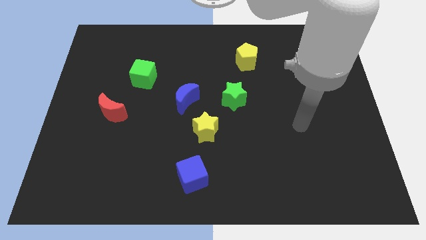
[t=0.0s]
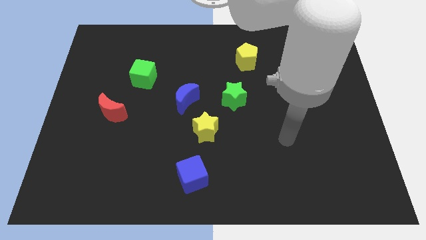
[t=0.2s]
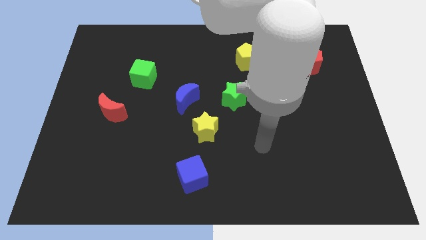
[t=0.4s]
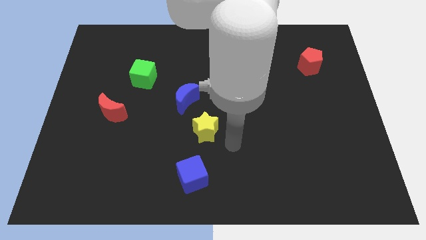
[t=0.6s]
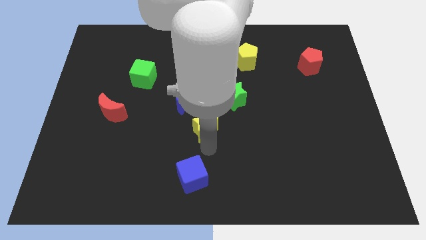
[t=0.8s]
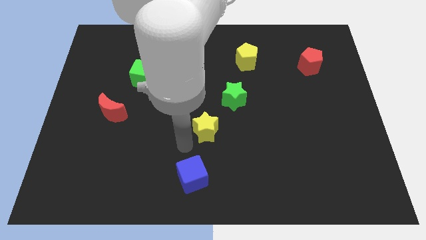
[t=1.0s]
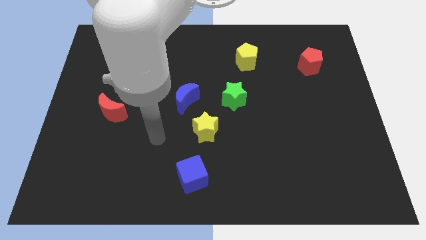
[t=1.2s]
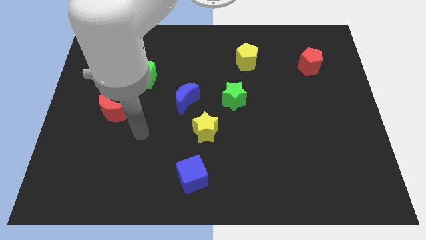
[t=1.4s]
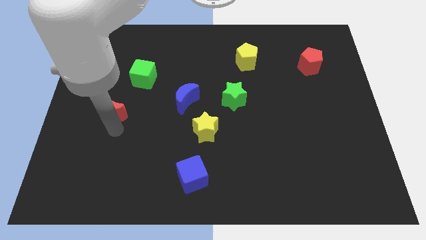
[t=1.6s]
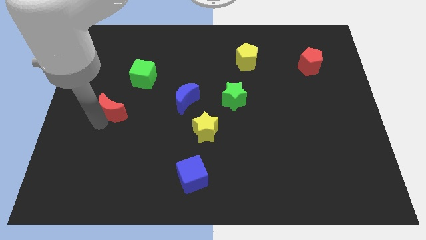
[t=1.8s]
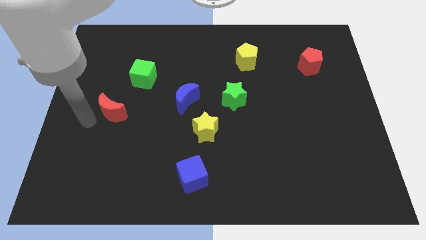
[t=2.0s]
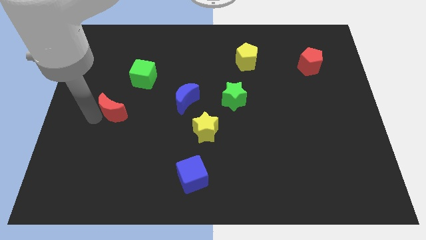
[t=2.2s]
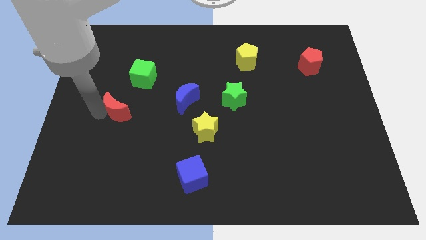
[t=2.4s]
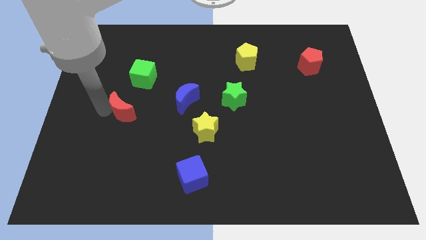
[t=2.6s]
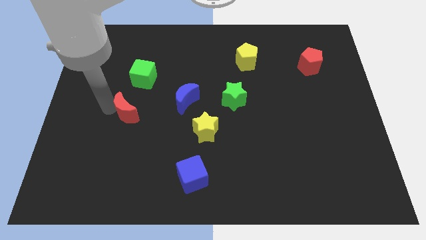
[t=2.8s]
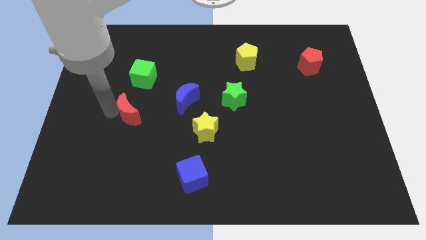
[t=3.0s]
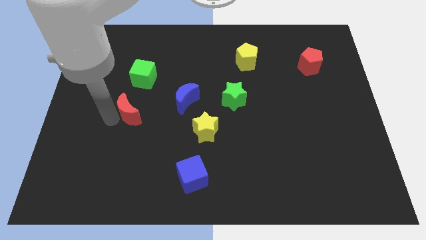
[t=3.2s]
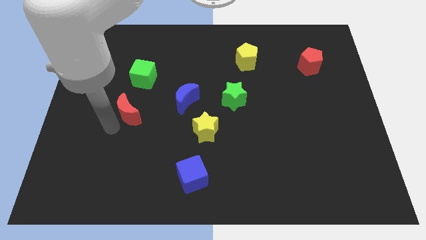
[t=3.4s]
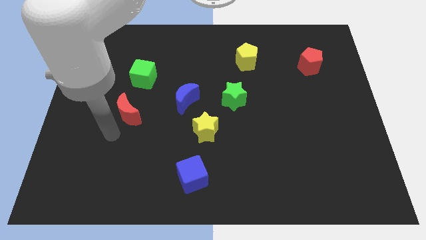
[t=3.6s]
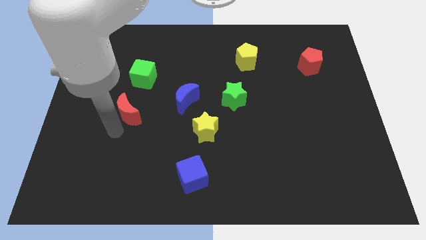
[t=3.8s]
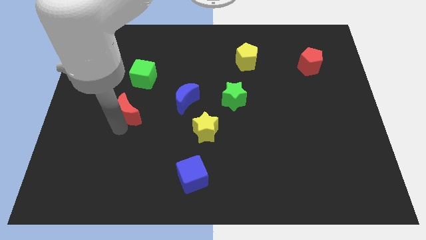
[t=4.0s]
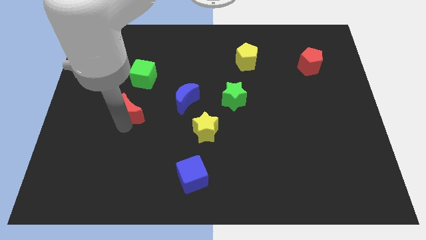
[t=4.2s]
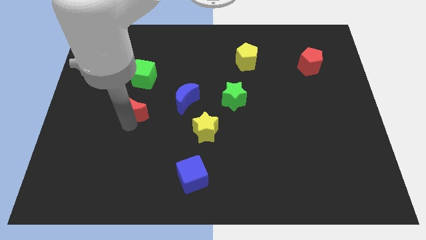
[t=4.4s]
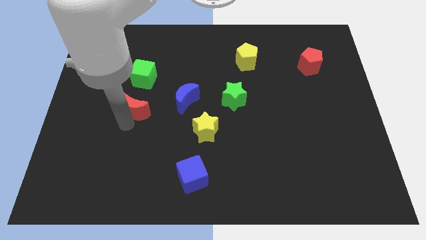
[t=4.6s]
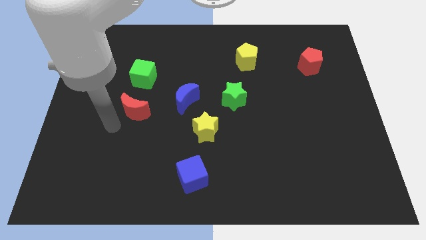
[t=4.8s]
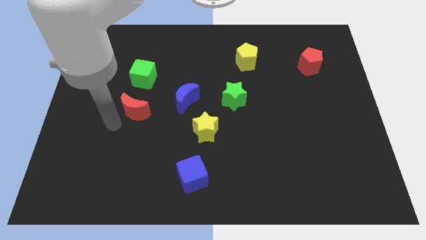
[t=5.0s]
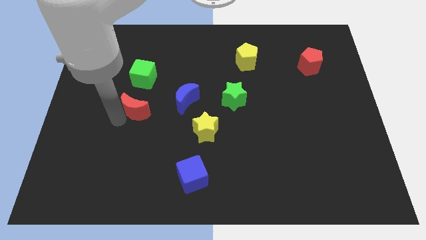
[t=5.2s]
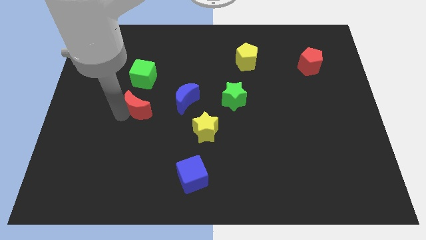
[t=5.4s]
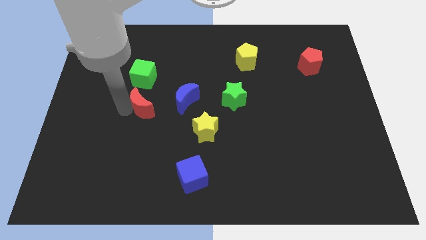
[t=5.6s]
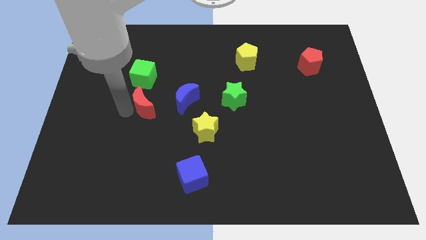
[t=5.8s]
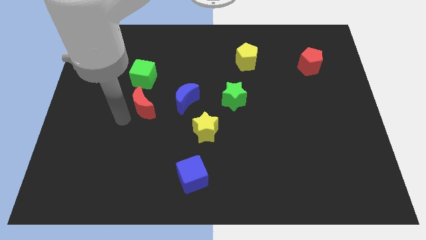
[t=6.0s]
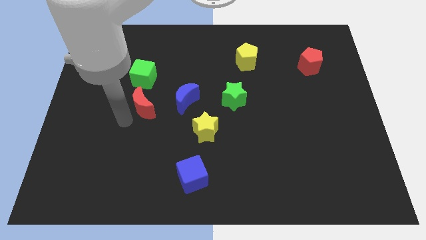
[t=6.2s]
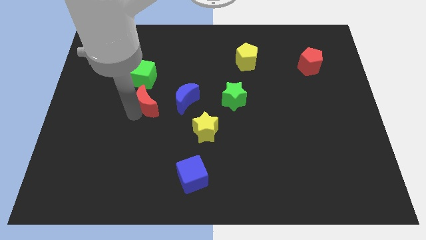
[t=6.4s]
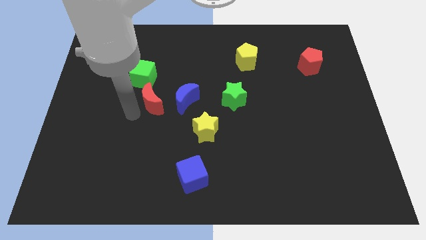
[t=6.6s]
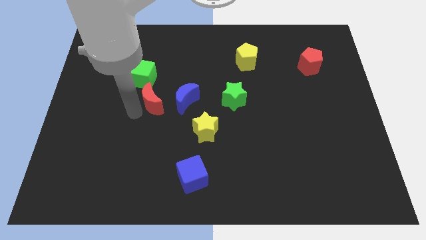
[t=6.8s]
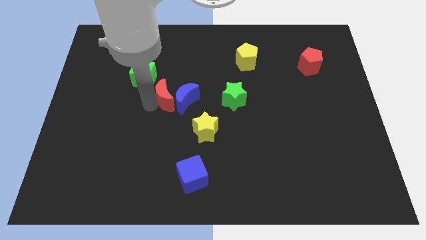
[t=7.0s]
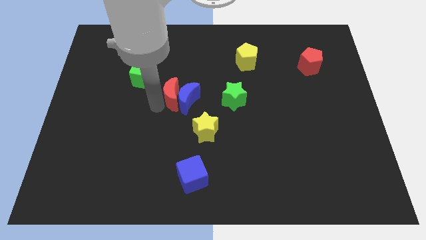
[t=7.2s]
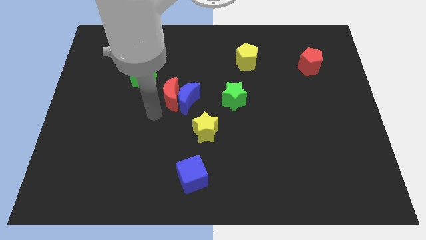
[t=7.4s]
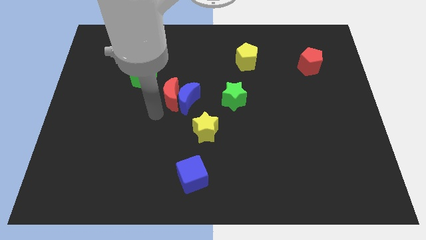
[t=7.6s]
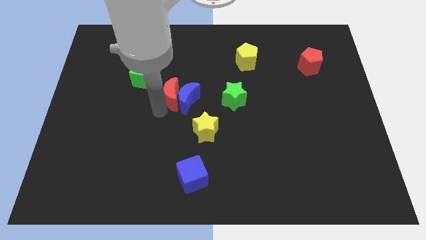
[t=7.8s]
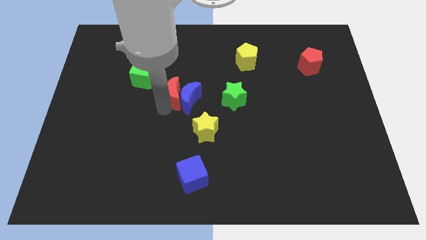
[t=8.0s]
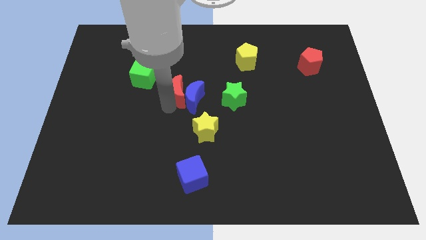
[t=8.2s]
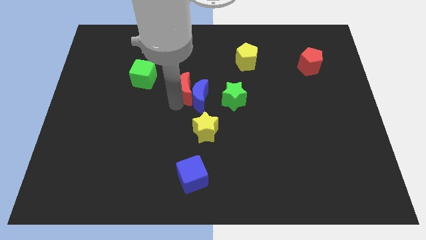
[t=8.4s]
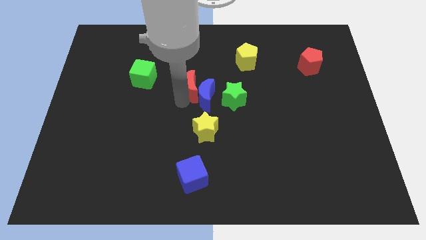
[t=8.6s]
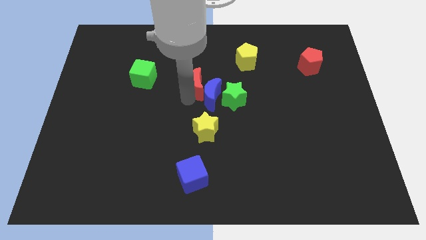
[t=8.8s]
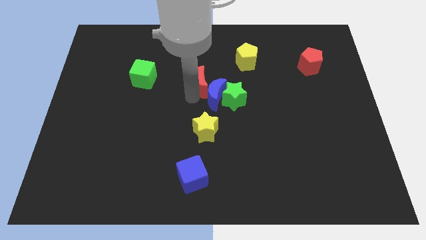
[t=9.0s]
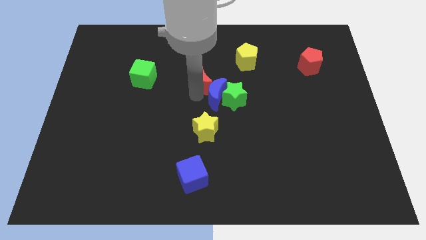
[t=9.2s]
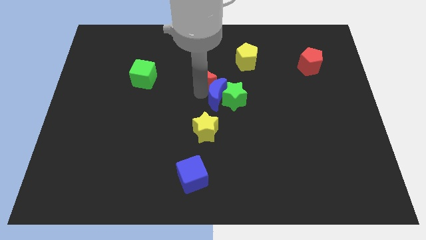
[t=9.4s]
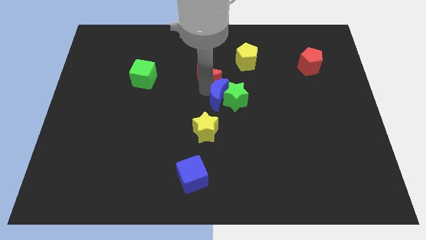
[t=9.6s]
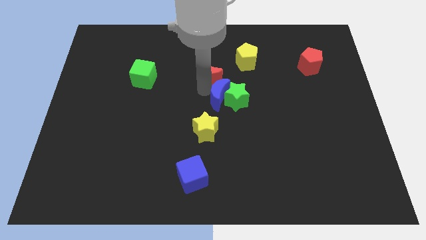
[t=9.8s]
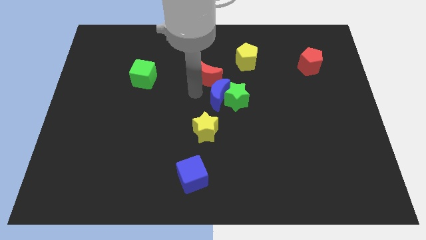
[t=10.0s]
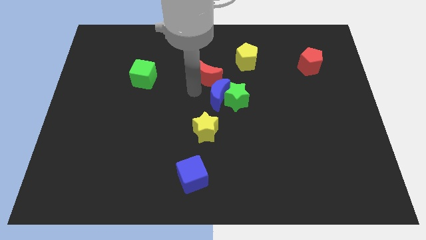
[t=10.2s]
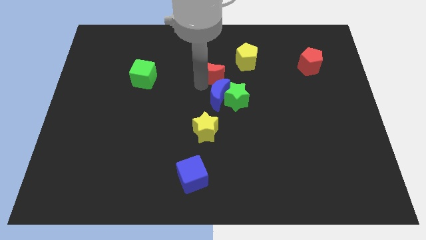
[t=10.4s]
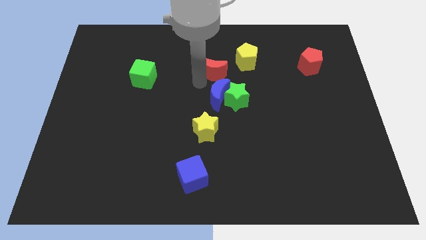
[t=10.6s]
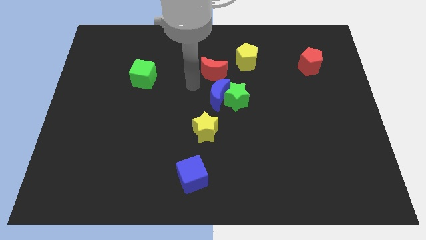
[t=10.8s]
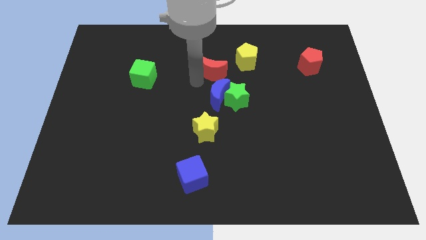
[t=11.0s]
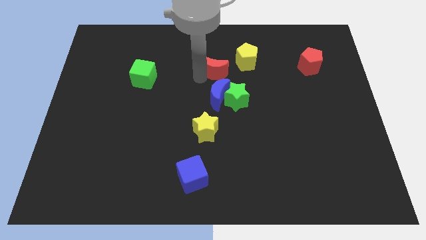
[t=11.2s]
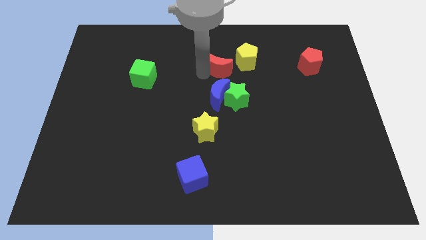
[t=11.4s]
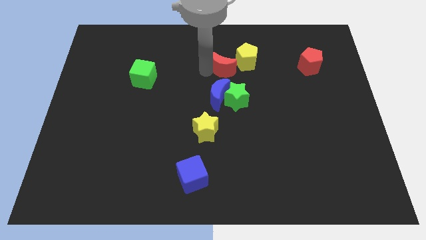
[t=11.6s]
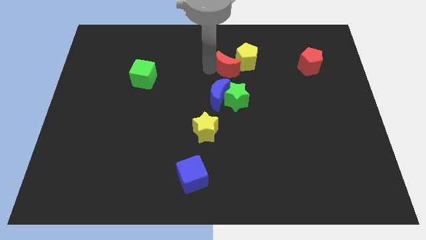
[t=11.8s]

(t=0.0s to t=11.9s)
move the red moon to the yellow pentagon

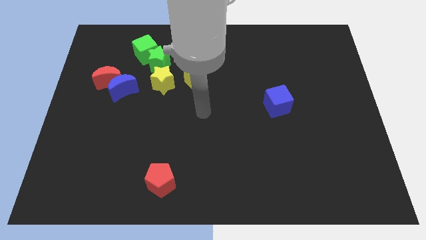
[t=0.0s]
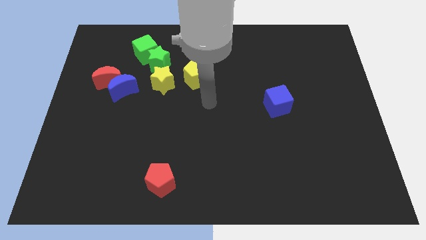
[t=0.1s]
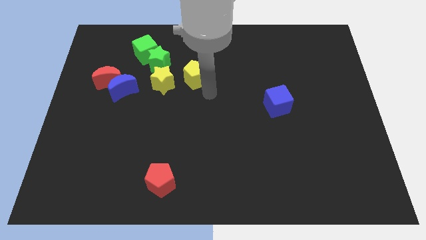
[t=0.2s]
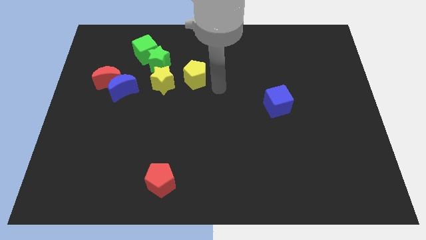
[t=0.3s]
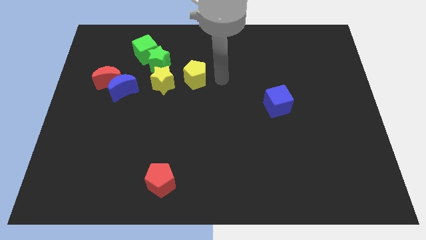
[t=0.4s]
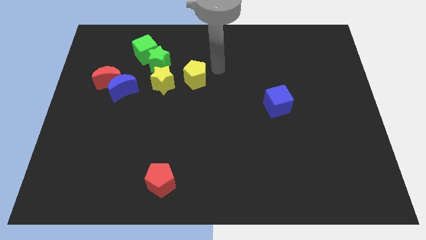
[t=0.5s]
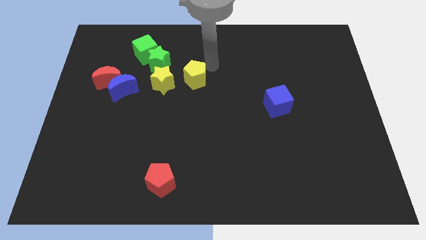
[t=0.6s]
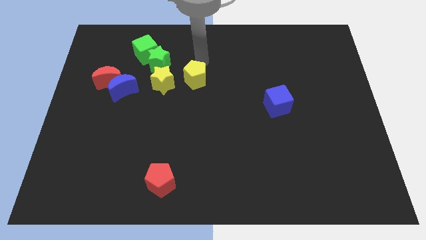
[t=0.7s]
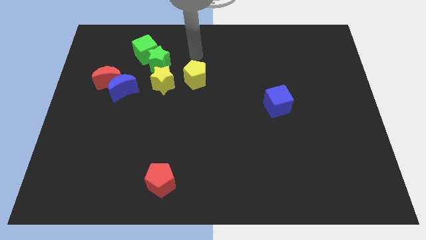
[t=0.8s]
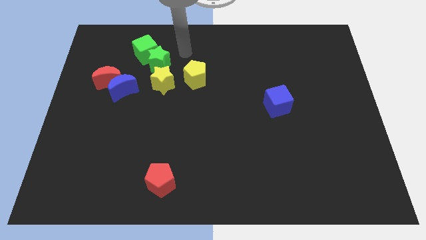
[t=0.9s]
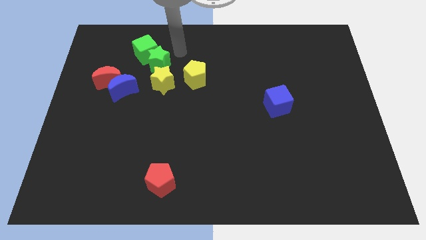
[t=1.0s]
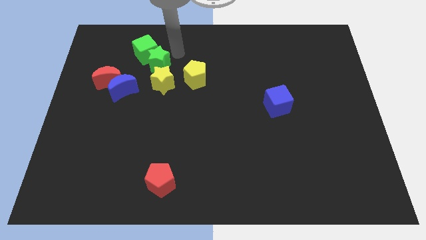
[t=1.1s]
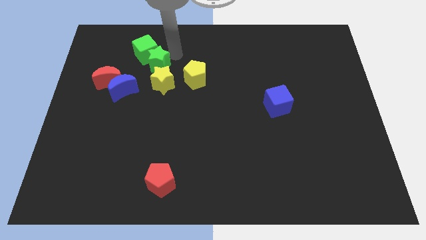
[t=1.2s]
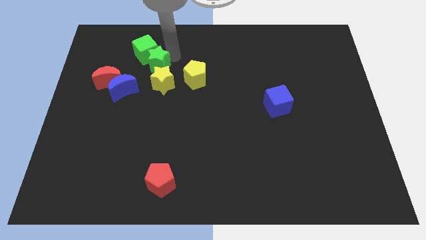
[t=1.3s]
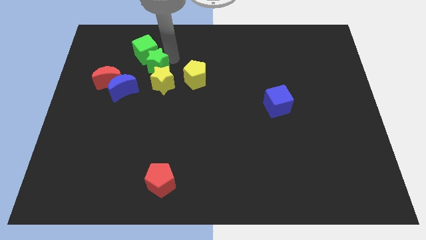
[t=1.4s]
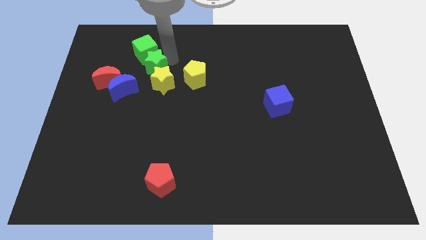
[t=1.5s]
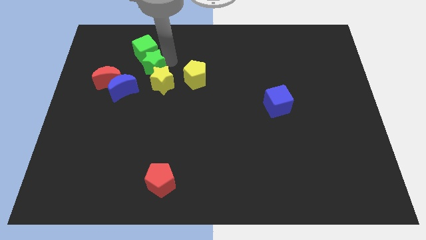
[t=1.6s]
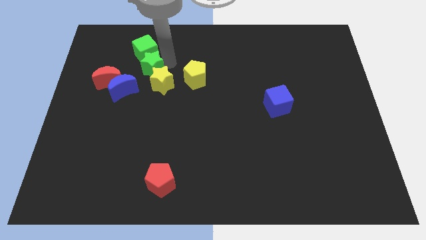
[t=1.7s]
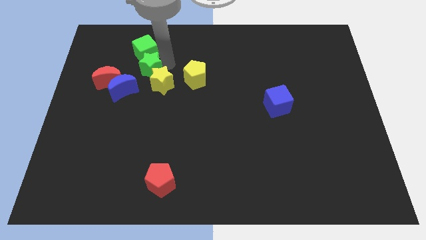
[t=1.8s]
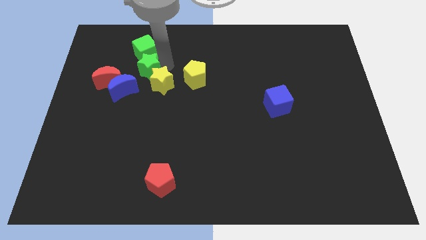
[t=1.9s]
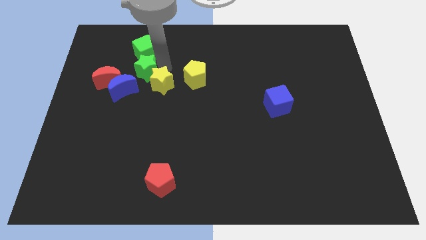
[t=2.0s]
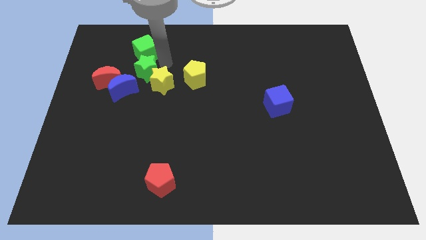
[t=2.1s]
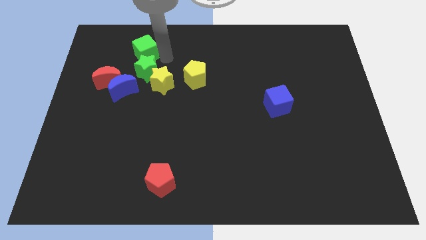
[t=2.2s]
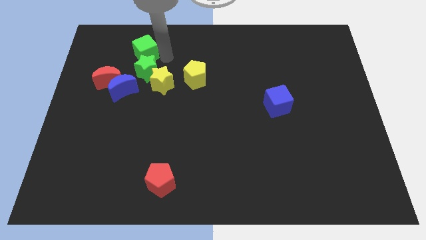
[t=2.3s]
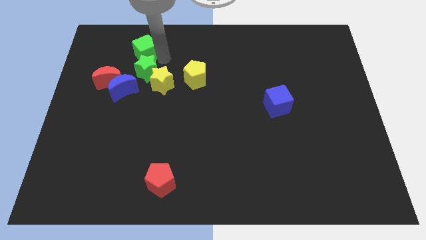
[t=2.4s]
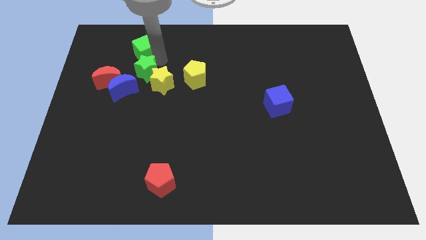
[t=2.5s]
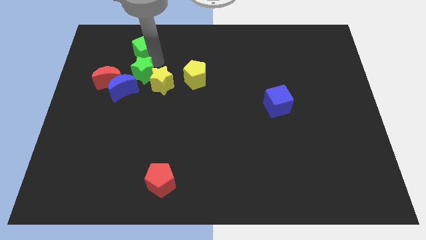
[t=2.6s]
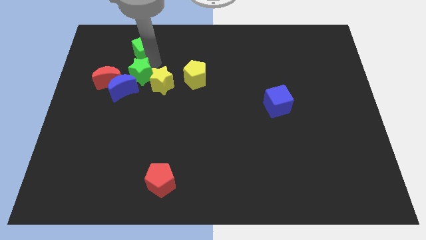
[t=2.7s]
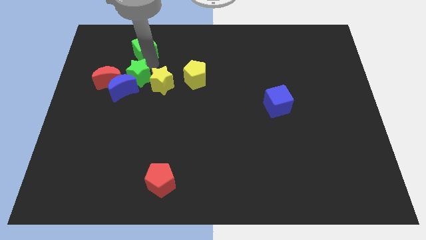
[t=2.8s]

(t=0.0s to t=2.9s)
put the green star towards the blue moon
